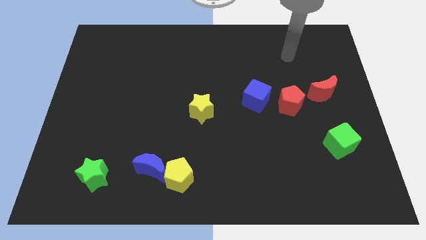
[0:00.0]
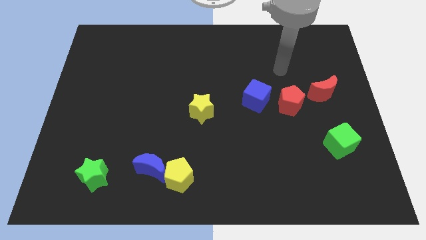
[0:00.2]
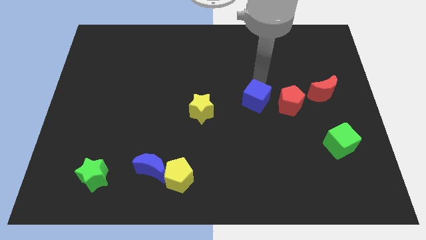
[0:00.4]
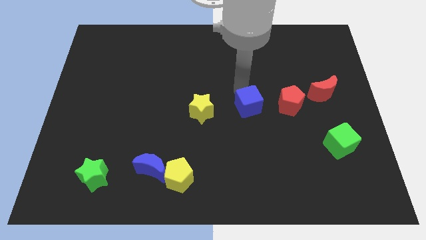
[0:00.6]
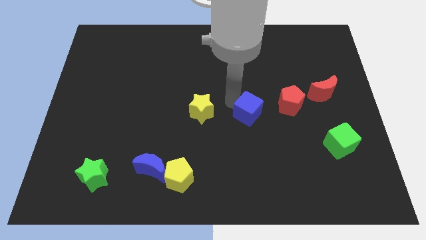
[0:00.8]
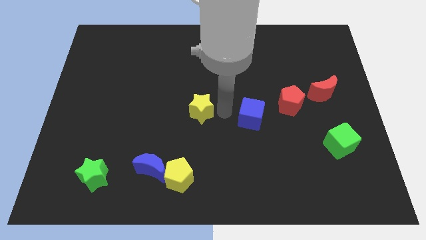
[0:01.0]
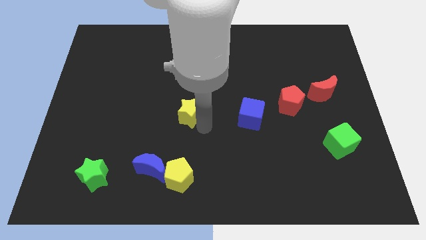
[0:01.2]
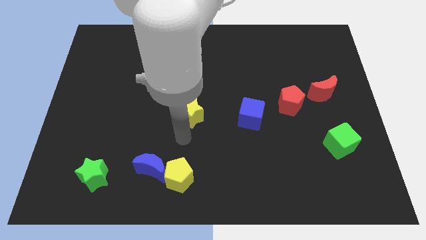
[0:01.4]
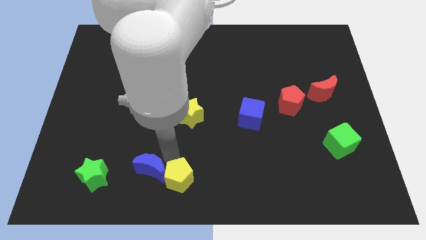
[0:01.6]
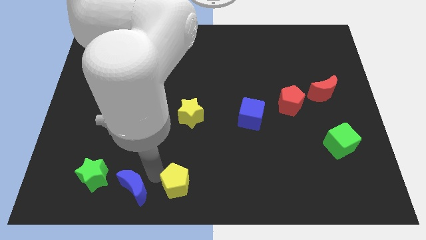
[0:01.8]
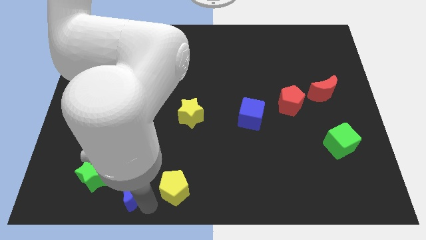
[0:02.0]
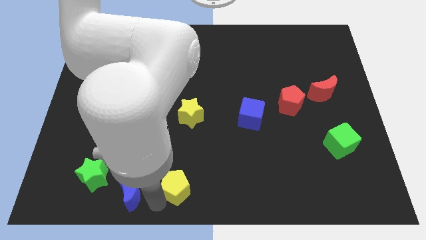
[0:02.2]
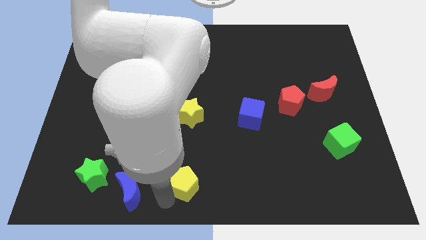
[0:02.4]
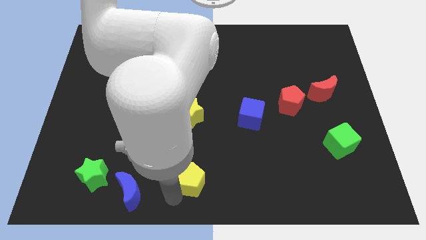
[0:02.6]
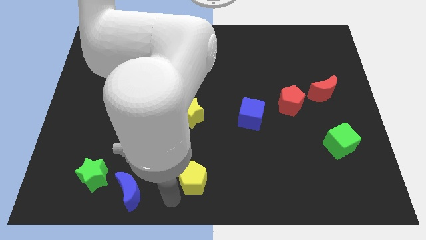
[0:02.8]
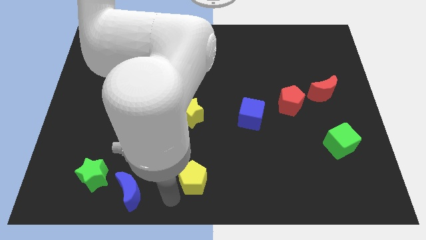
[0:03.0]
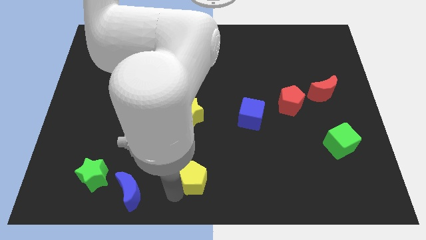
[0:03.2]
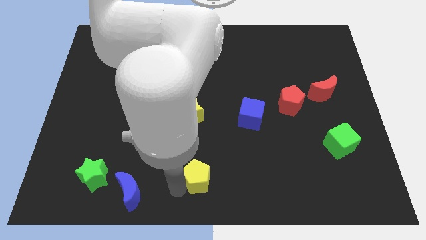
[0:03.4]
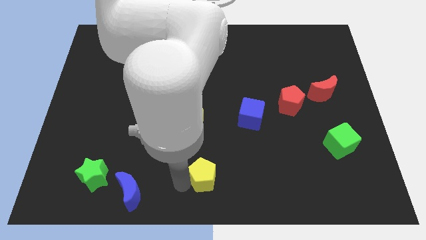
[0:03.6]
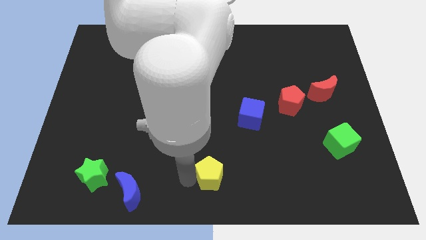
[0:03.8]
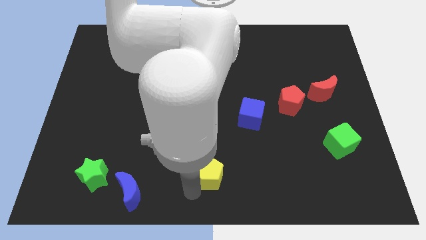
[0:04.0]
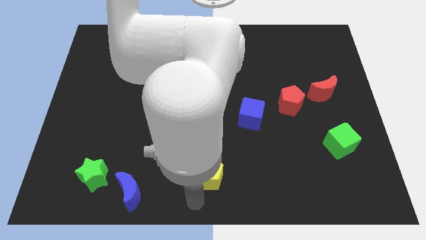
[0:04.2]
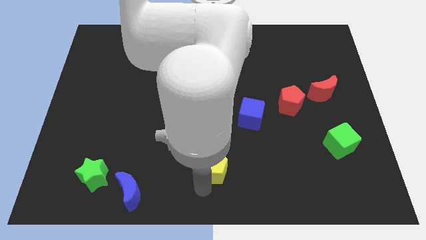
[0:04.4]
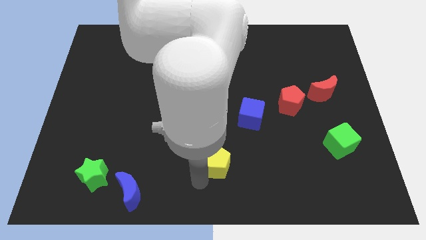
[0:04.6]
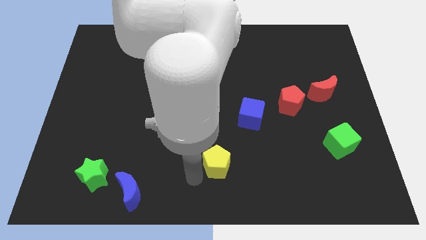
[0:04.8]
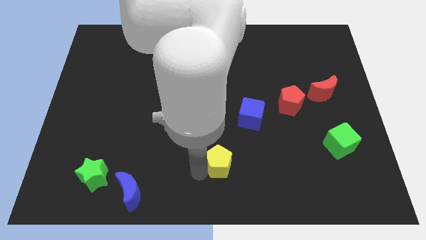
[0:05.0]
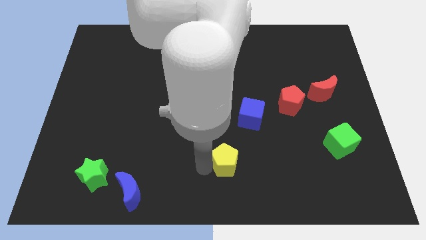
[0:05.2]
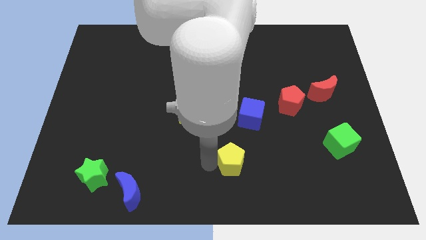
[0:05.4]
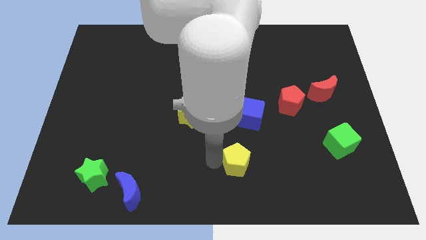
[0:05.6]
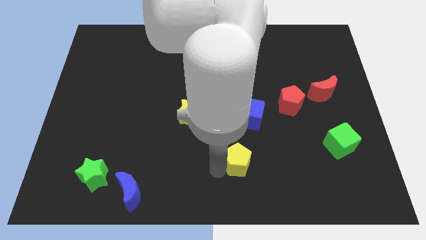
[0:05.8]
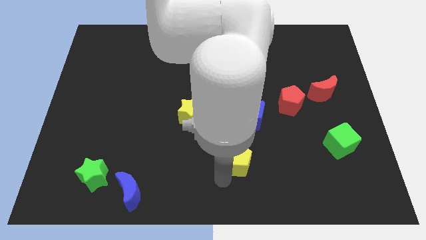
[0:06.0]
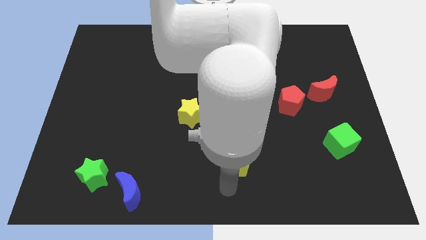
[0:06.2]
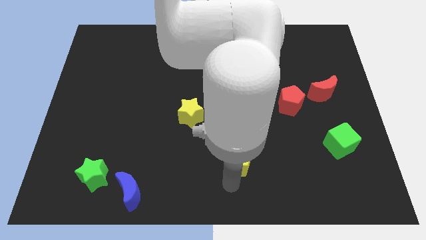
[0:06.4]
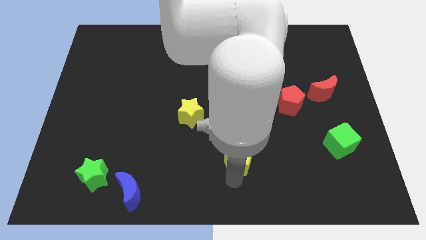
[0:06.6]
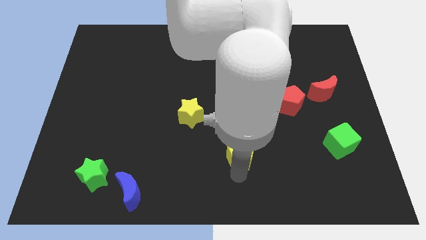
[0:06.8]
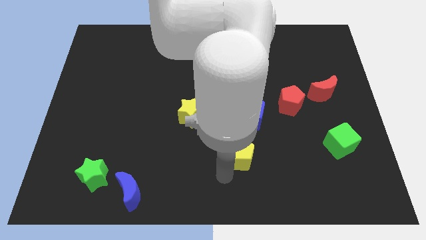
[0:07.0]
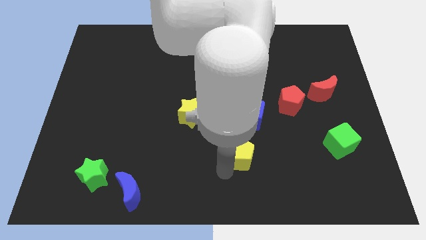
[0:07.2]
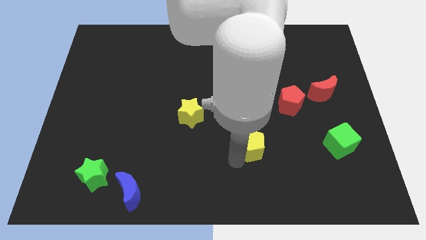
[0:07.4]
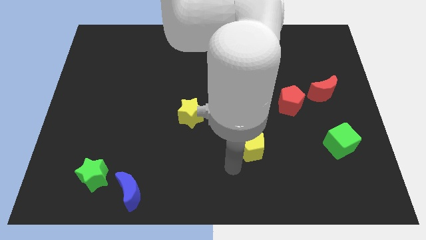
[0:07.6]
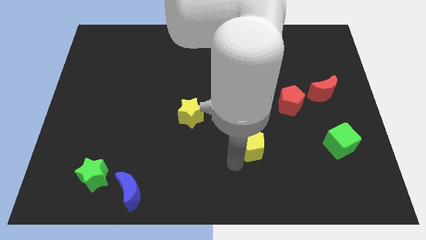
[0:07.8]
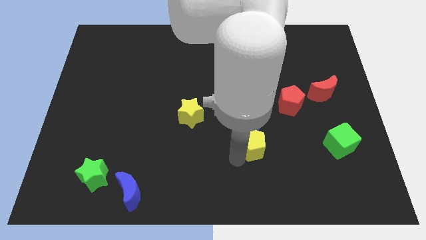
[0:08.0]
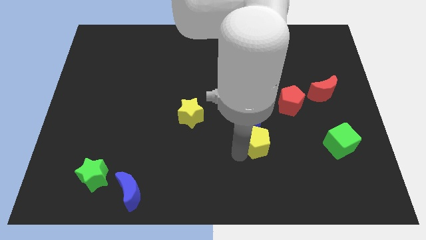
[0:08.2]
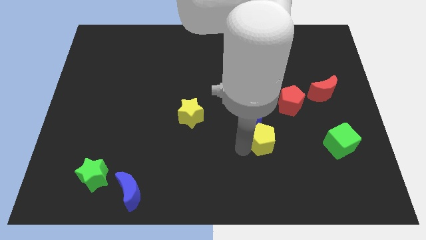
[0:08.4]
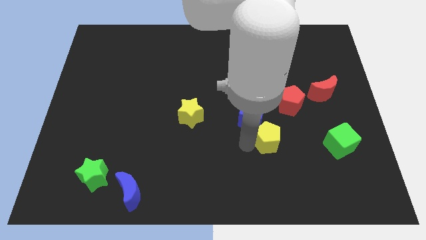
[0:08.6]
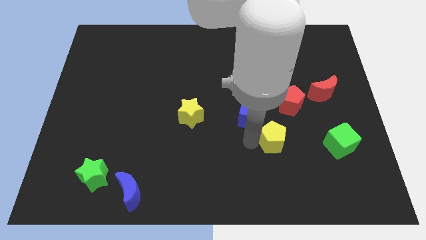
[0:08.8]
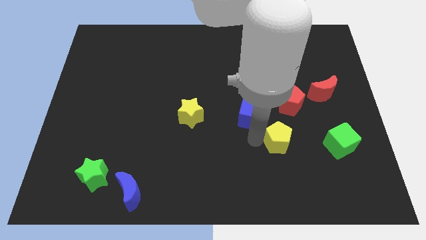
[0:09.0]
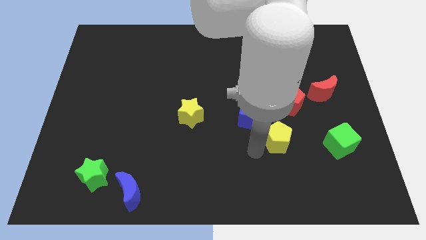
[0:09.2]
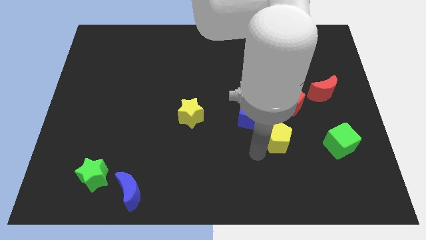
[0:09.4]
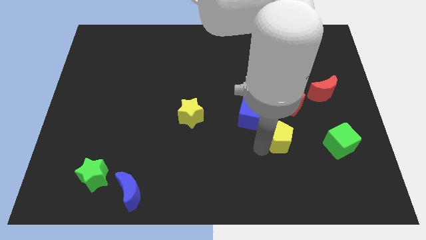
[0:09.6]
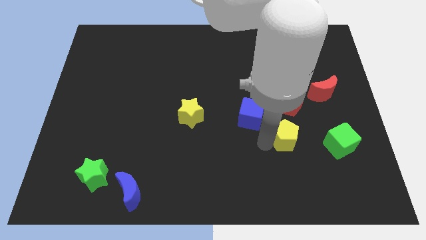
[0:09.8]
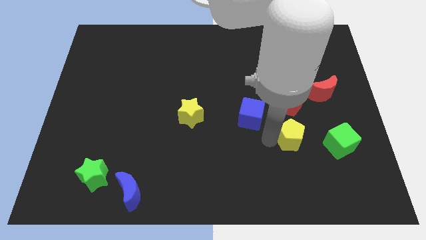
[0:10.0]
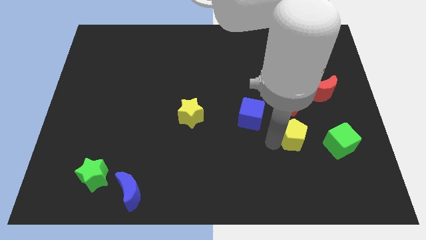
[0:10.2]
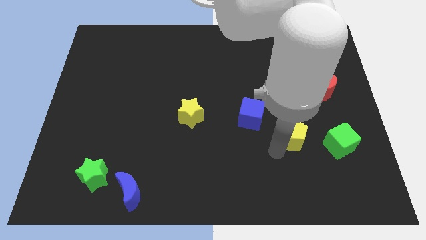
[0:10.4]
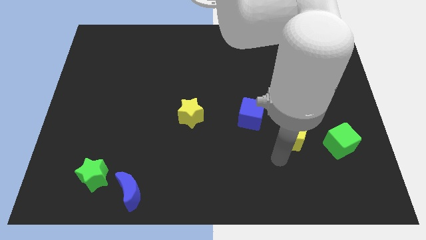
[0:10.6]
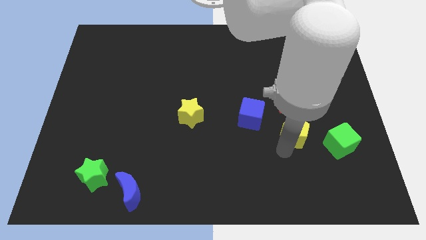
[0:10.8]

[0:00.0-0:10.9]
push the yellow pentagon up and then right

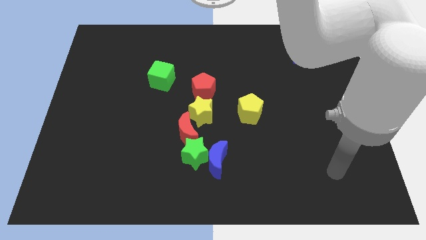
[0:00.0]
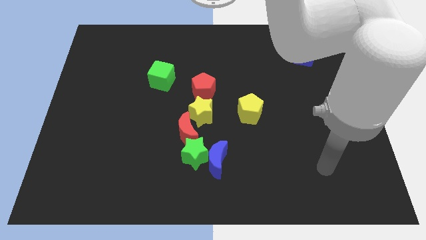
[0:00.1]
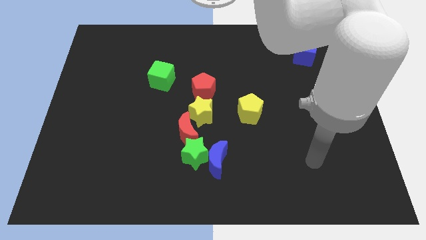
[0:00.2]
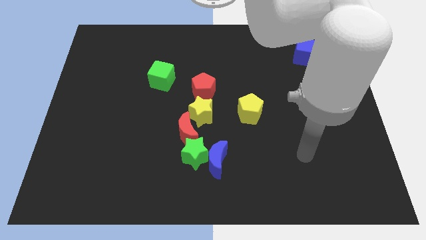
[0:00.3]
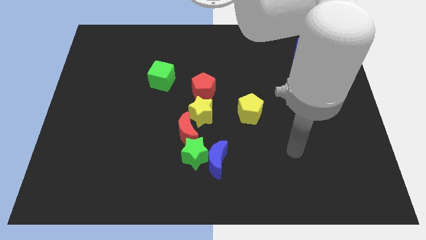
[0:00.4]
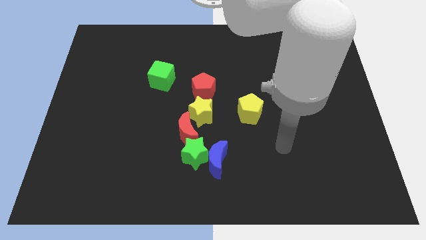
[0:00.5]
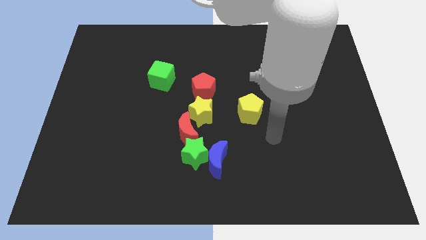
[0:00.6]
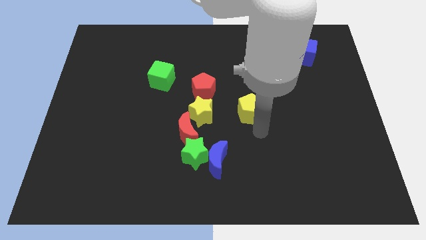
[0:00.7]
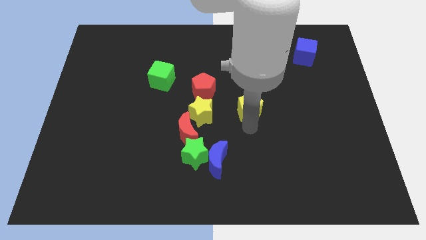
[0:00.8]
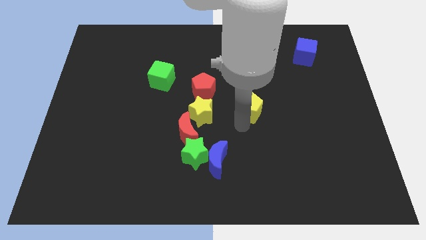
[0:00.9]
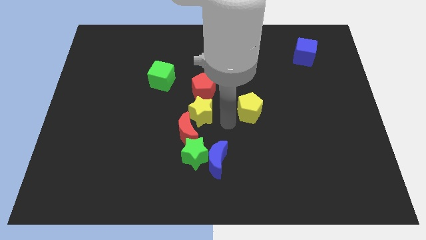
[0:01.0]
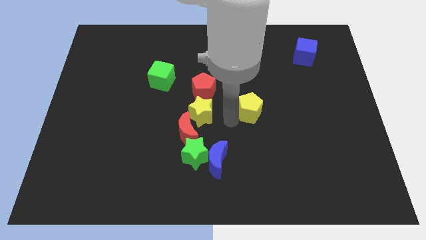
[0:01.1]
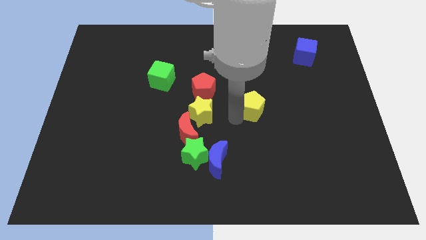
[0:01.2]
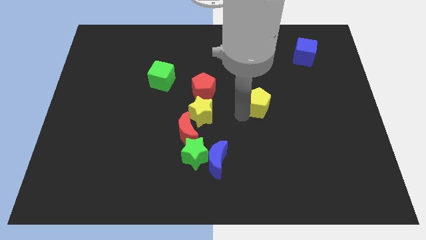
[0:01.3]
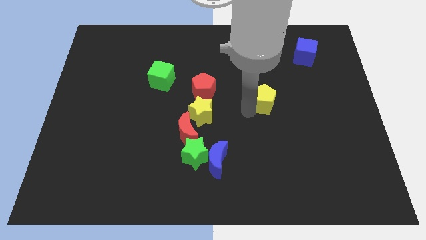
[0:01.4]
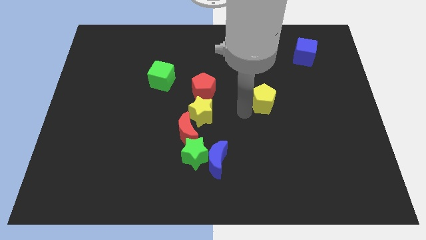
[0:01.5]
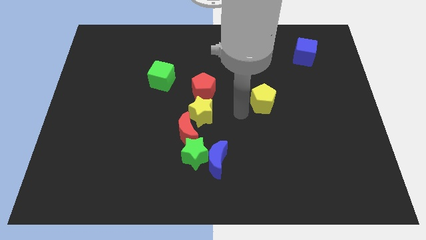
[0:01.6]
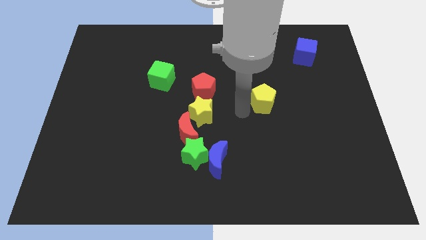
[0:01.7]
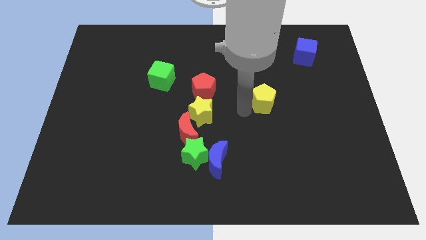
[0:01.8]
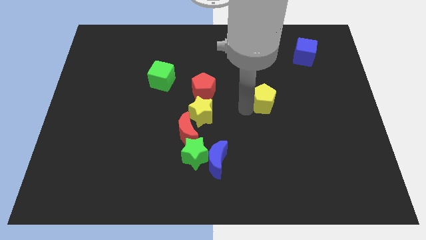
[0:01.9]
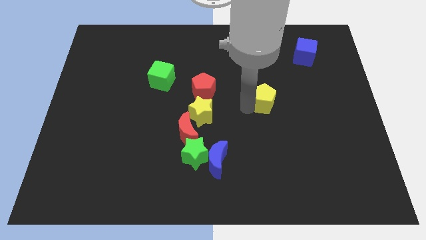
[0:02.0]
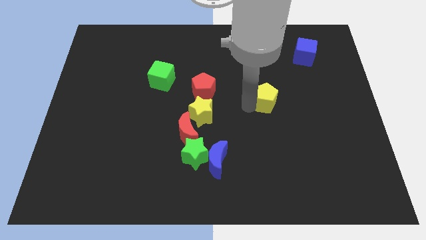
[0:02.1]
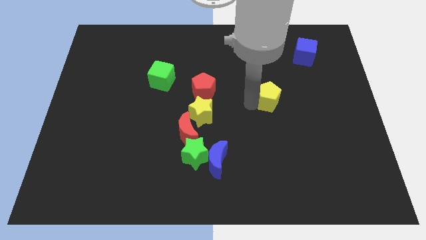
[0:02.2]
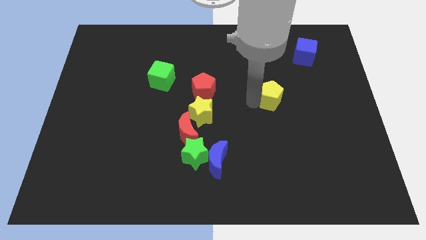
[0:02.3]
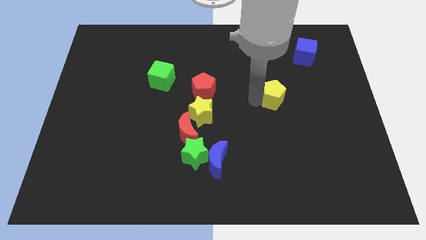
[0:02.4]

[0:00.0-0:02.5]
slightly move the yellow pentagon diagonally upwards and to the right

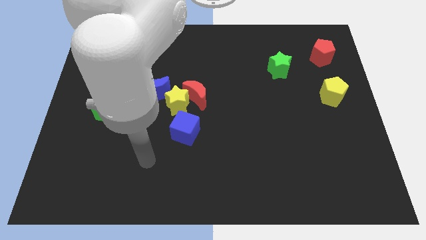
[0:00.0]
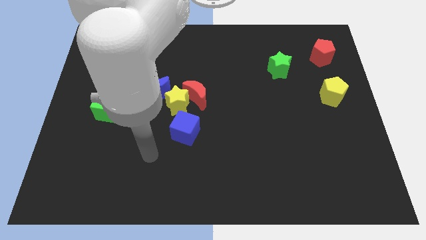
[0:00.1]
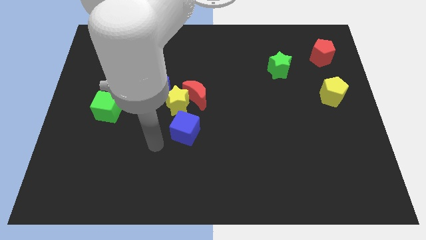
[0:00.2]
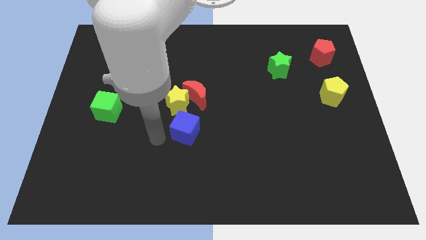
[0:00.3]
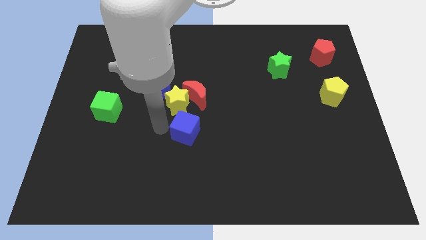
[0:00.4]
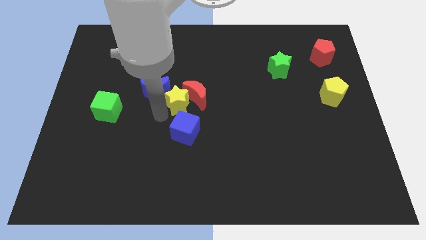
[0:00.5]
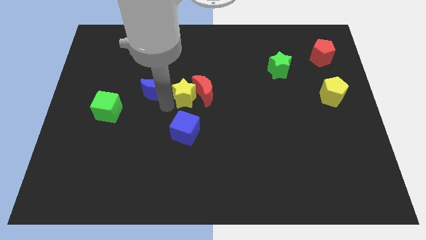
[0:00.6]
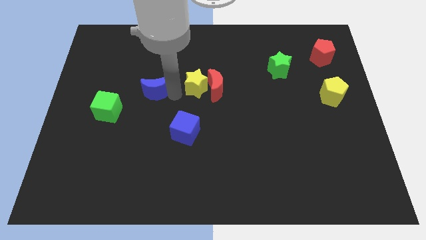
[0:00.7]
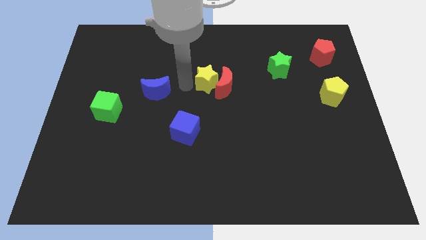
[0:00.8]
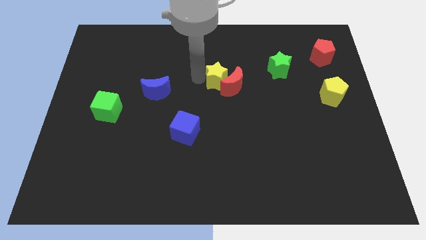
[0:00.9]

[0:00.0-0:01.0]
slightly push the red moon right
